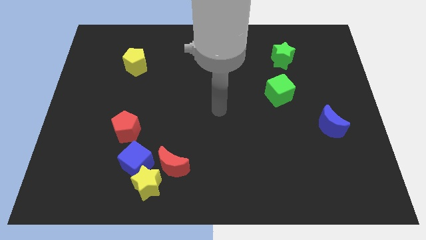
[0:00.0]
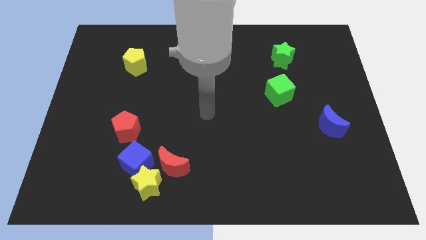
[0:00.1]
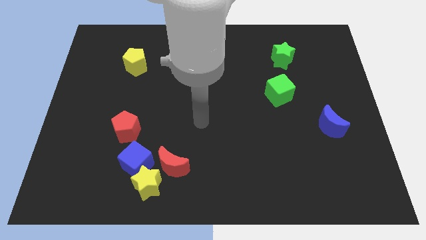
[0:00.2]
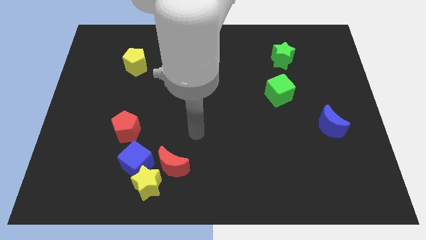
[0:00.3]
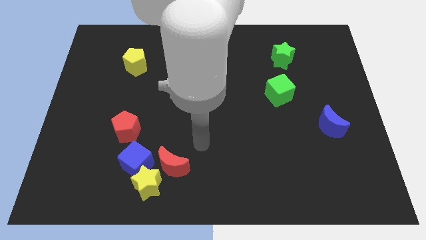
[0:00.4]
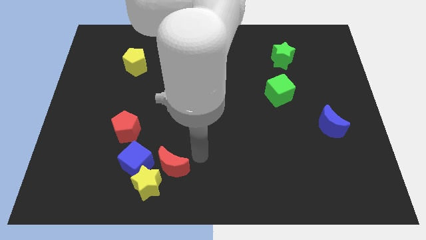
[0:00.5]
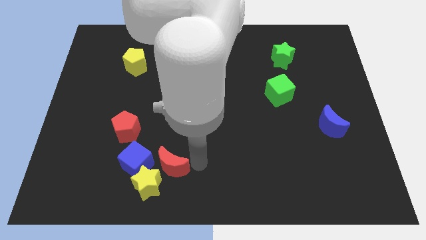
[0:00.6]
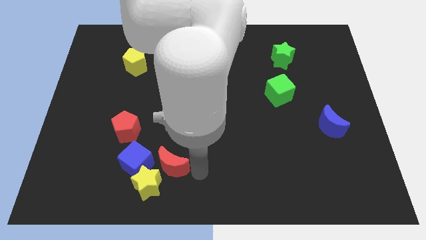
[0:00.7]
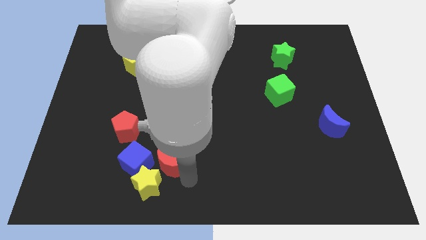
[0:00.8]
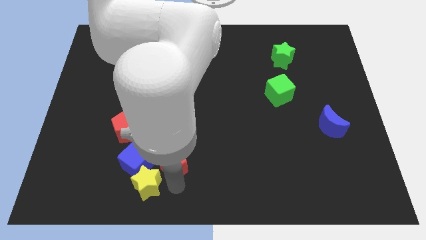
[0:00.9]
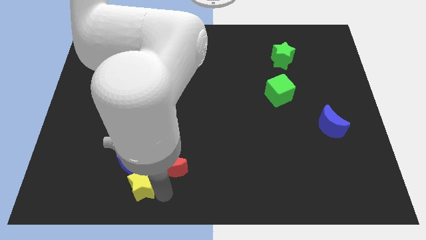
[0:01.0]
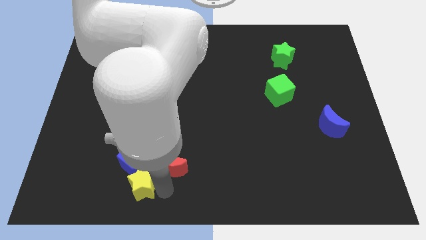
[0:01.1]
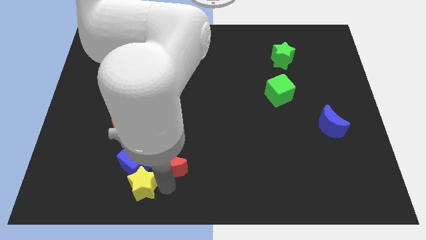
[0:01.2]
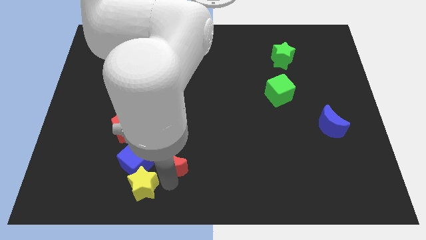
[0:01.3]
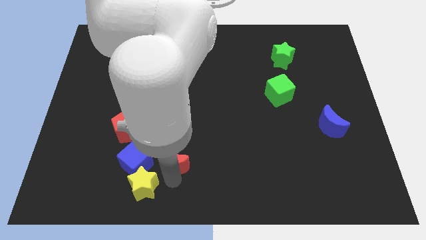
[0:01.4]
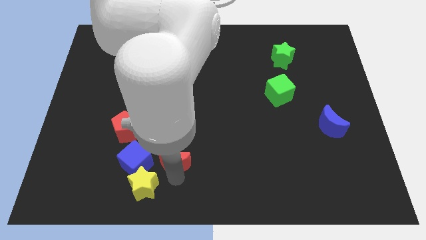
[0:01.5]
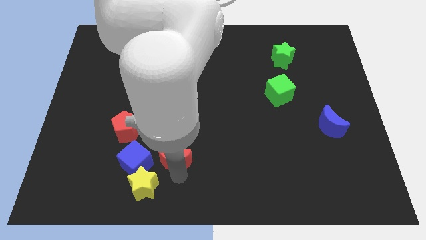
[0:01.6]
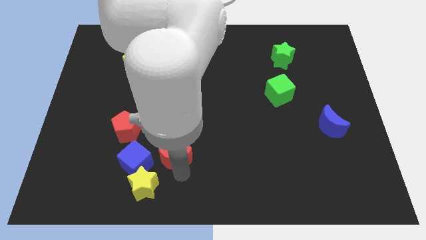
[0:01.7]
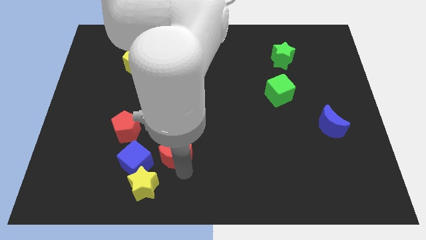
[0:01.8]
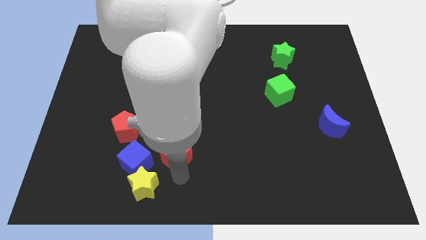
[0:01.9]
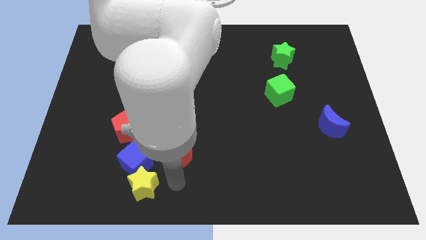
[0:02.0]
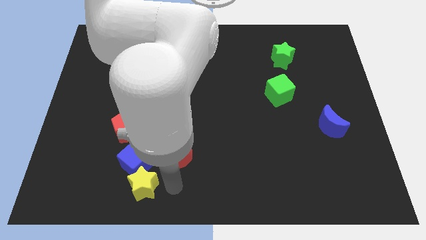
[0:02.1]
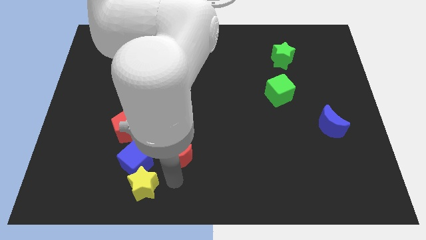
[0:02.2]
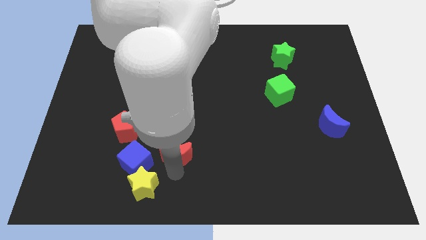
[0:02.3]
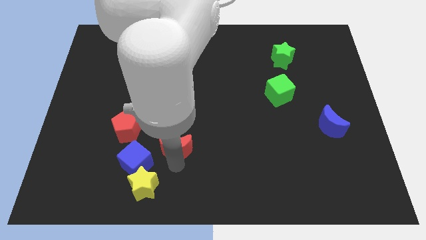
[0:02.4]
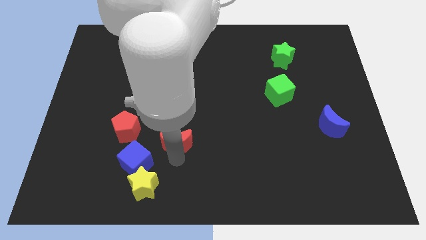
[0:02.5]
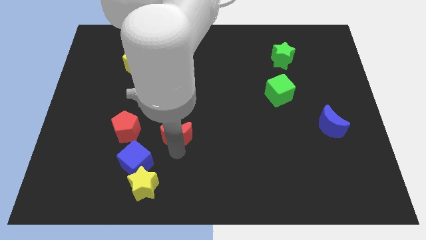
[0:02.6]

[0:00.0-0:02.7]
move the red moon upwards somewhat

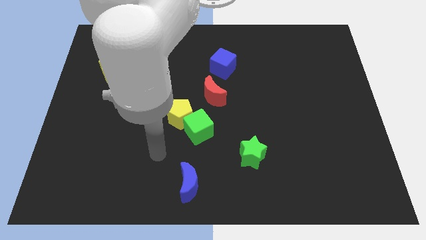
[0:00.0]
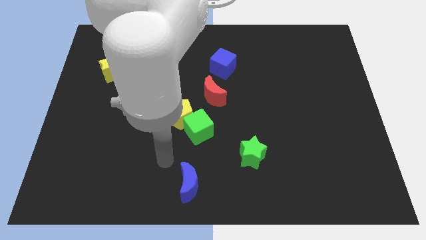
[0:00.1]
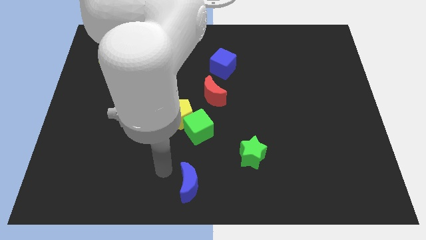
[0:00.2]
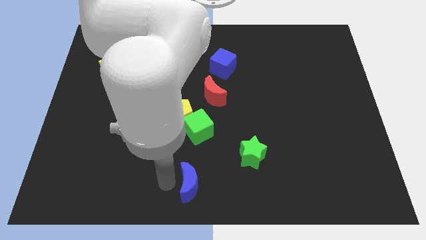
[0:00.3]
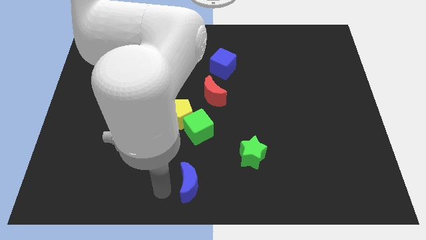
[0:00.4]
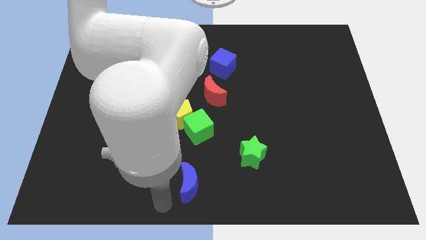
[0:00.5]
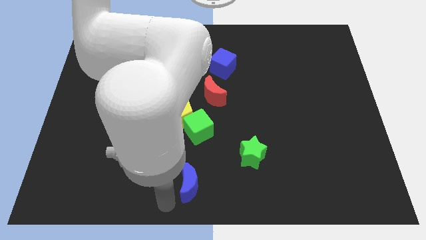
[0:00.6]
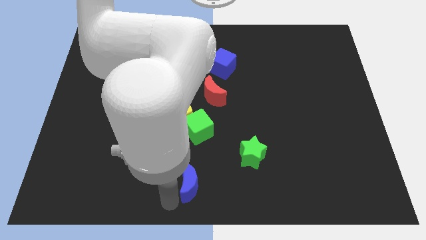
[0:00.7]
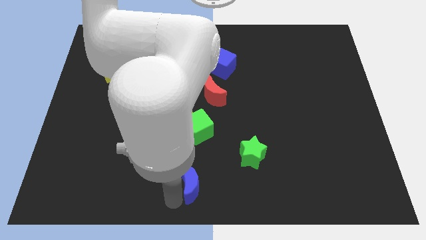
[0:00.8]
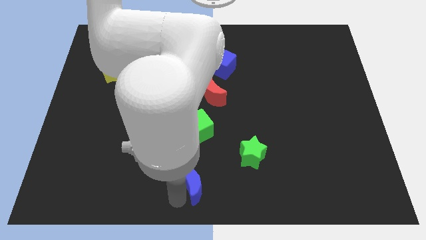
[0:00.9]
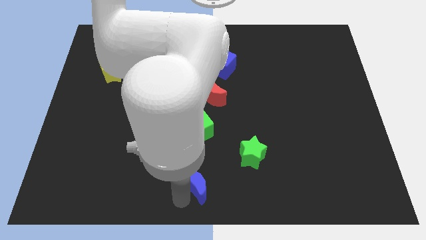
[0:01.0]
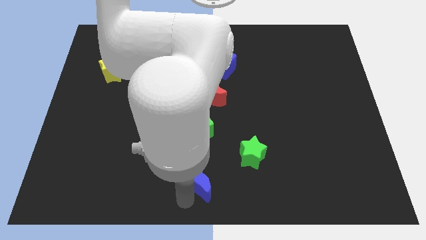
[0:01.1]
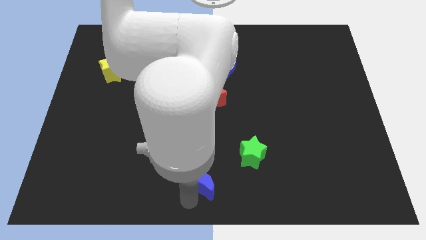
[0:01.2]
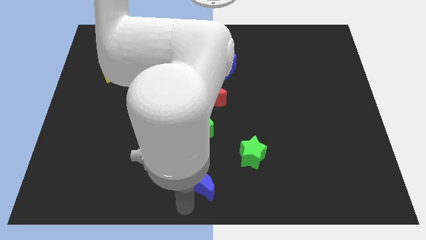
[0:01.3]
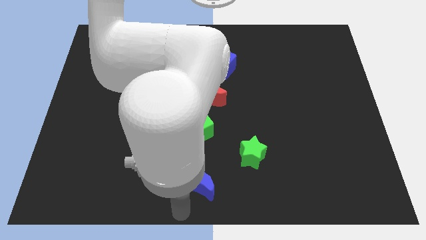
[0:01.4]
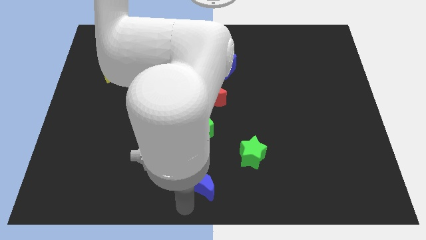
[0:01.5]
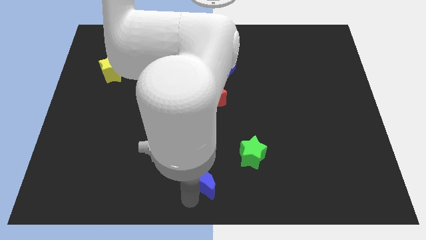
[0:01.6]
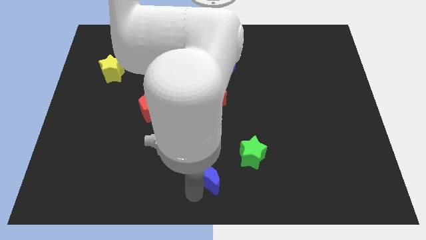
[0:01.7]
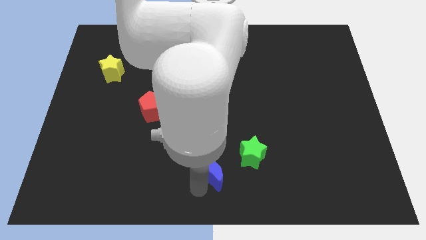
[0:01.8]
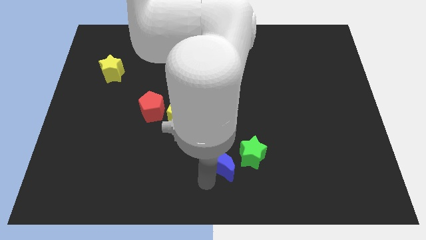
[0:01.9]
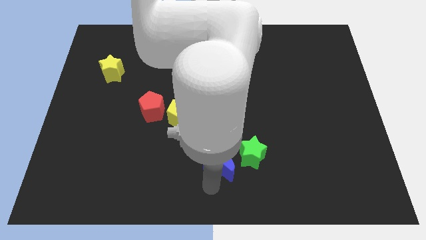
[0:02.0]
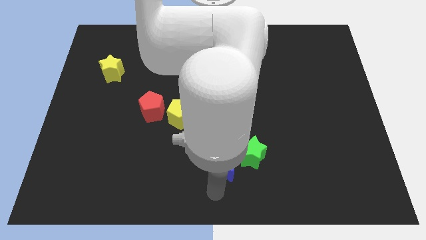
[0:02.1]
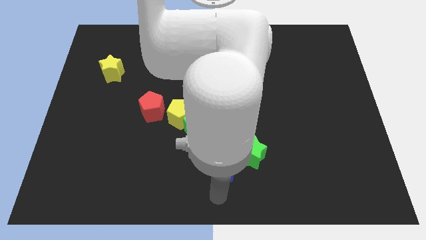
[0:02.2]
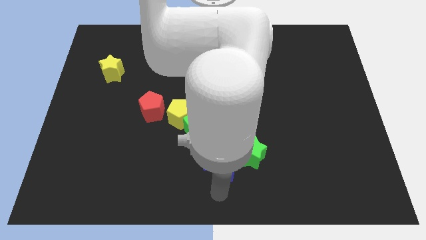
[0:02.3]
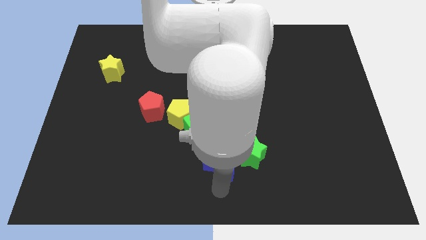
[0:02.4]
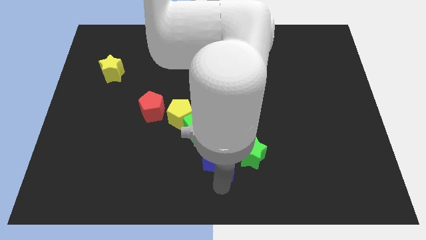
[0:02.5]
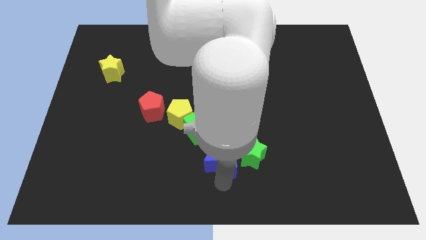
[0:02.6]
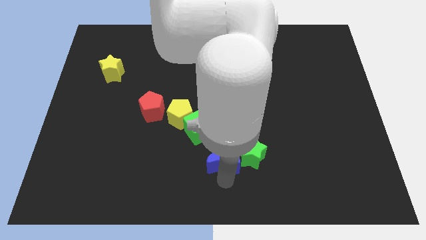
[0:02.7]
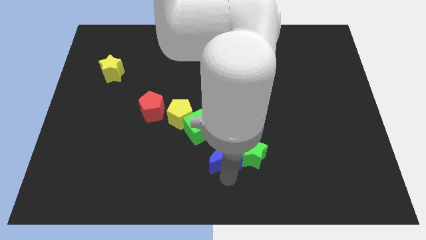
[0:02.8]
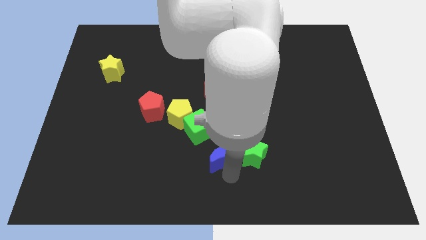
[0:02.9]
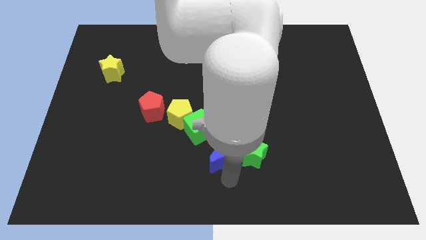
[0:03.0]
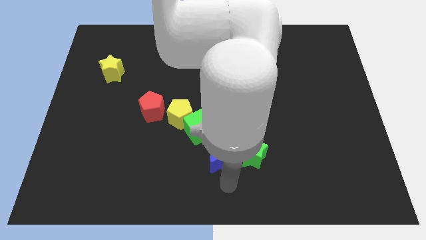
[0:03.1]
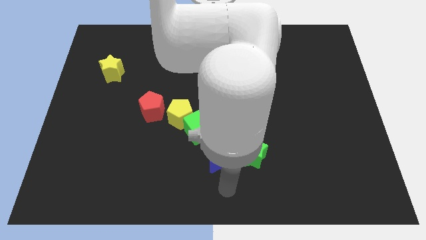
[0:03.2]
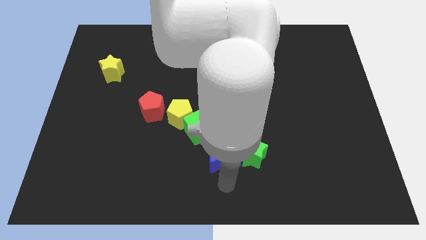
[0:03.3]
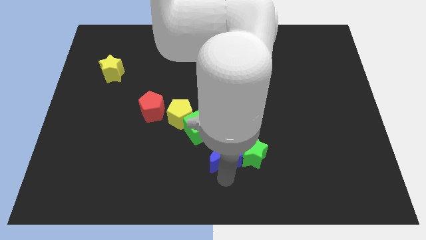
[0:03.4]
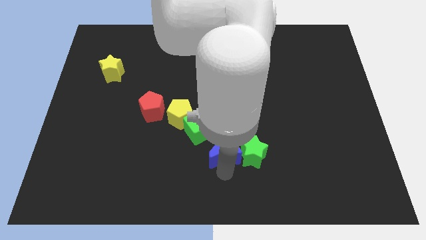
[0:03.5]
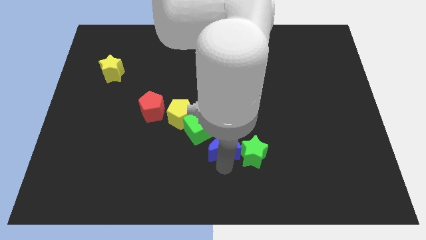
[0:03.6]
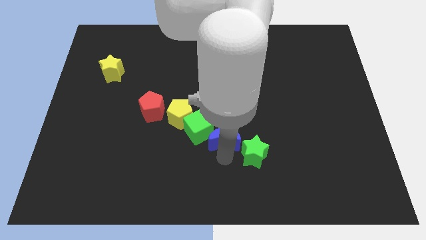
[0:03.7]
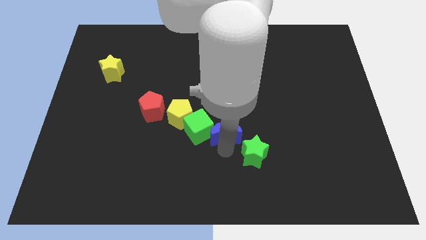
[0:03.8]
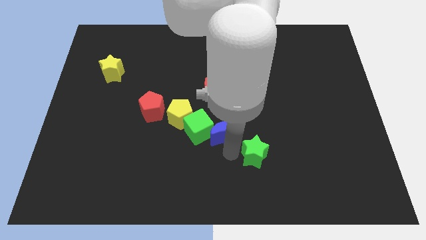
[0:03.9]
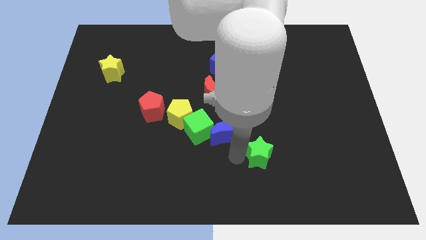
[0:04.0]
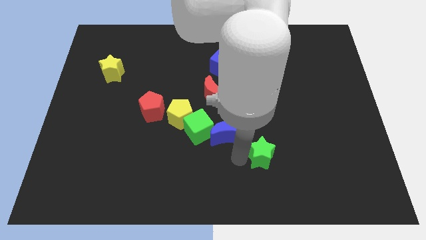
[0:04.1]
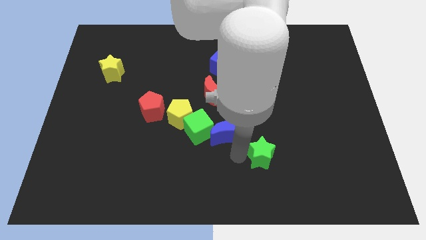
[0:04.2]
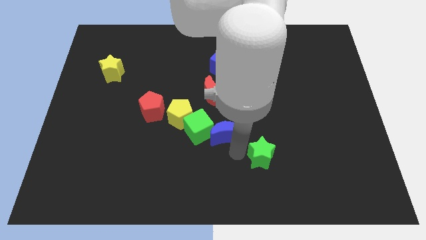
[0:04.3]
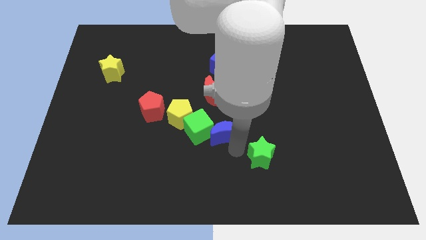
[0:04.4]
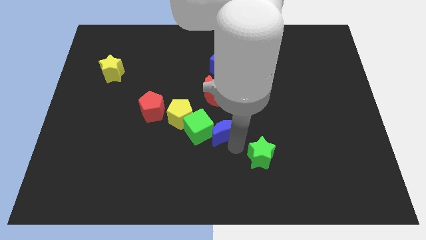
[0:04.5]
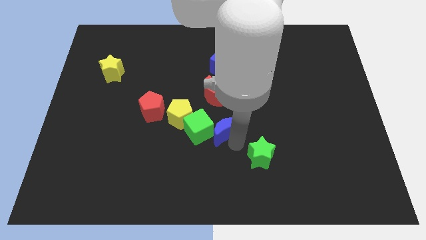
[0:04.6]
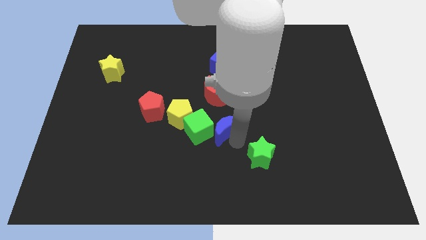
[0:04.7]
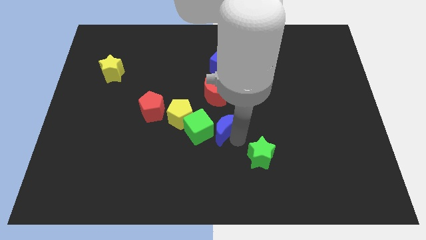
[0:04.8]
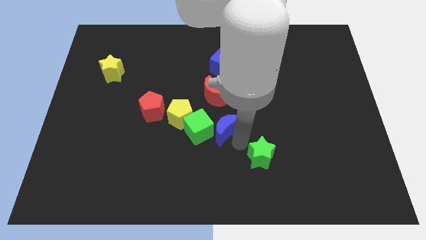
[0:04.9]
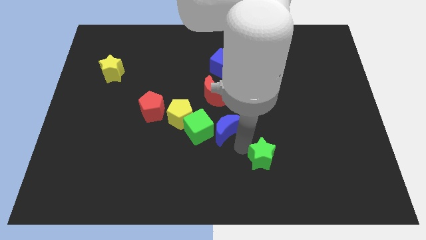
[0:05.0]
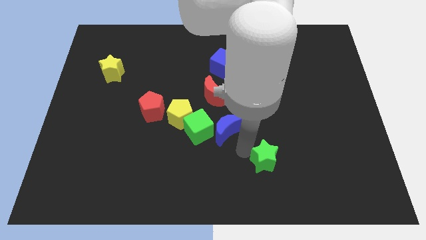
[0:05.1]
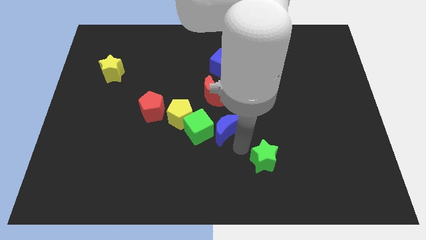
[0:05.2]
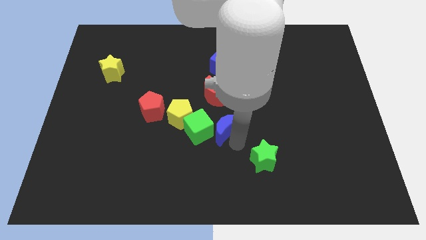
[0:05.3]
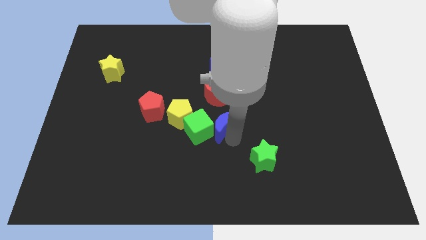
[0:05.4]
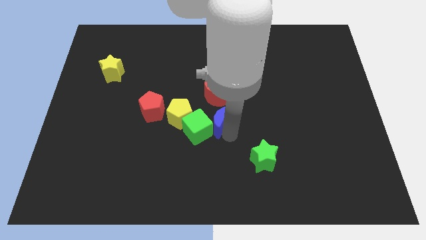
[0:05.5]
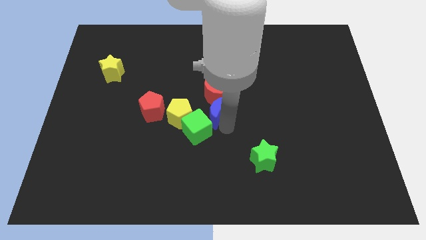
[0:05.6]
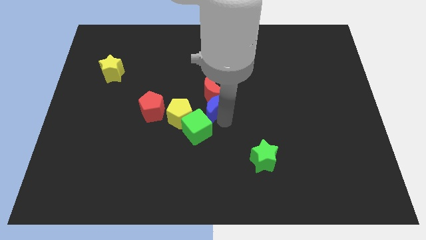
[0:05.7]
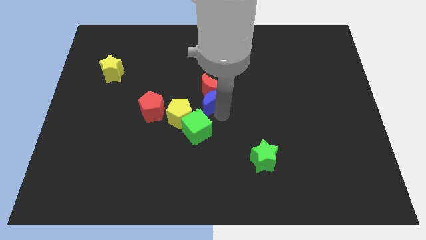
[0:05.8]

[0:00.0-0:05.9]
slide the blue moon upwards
